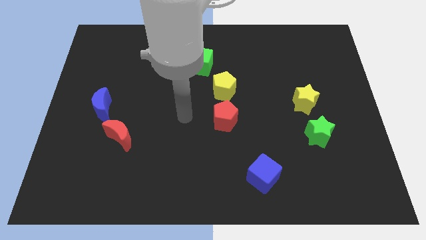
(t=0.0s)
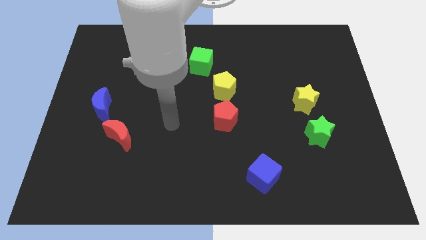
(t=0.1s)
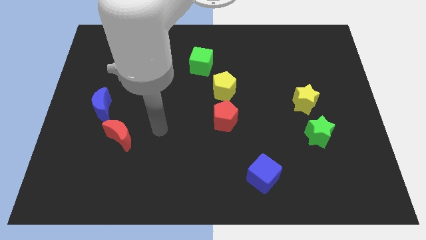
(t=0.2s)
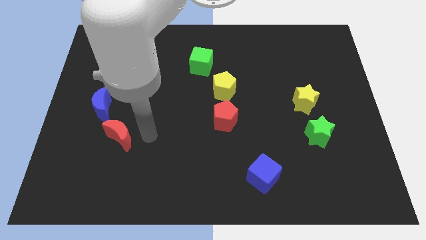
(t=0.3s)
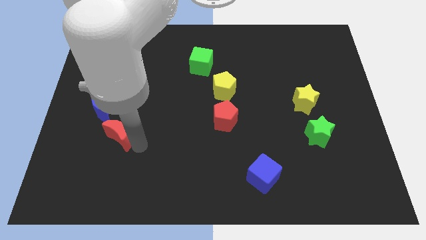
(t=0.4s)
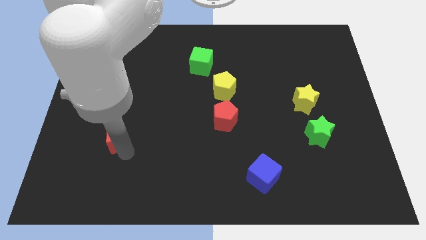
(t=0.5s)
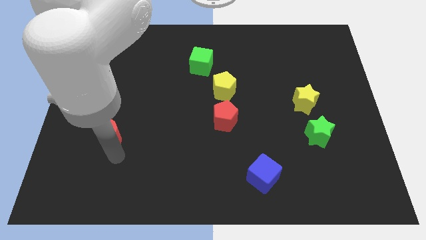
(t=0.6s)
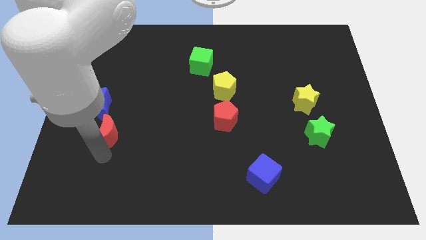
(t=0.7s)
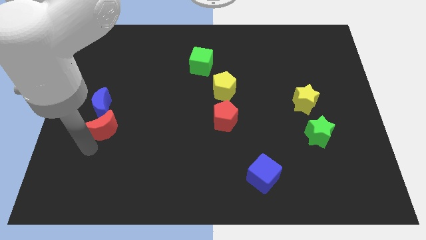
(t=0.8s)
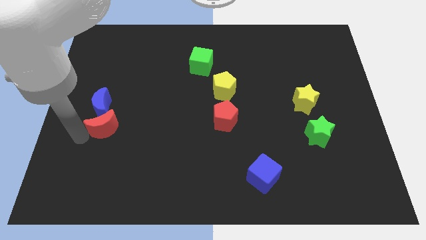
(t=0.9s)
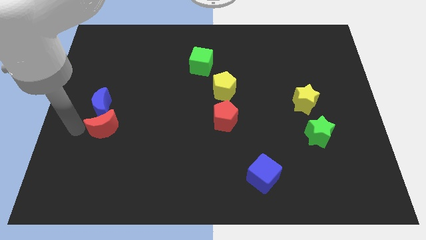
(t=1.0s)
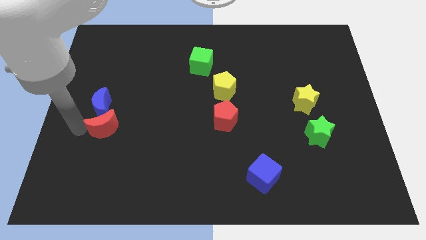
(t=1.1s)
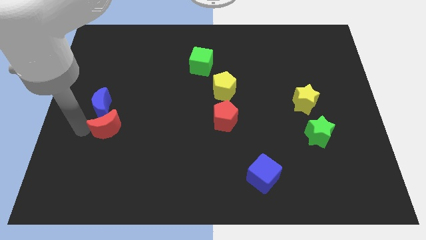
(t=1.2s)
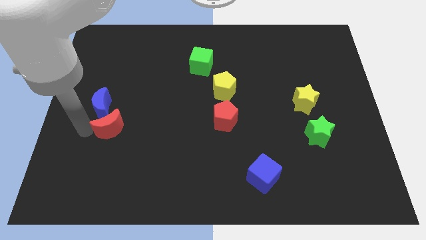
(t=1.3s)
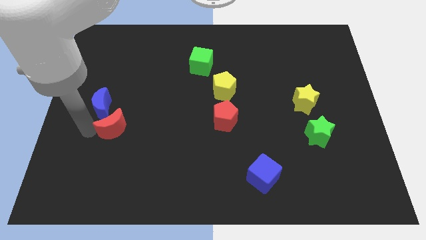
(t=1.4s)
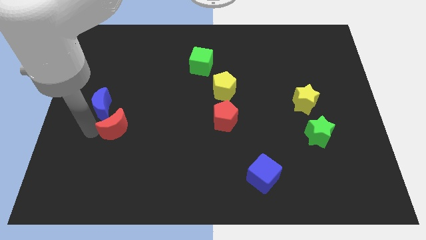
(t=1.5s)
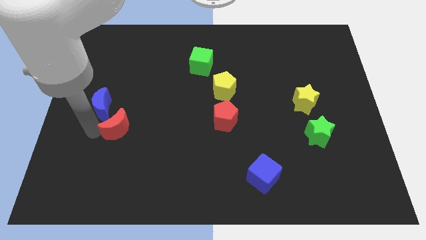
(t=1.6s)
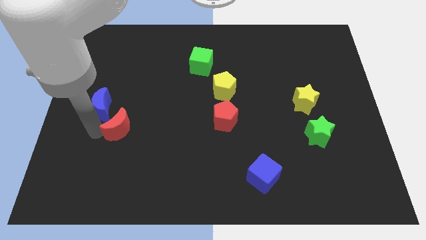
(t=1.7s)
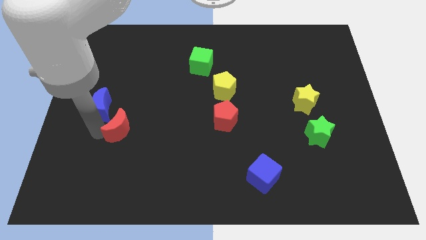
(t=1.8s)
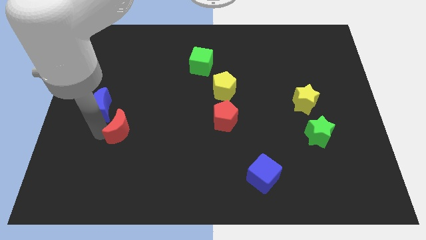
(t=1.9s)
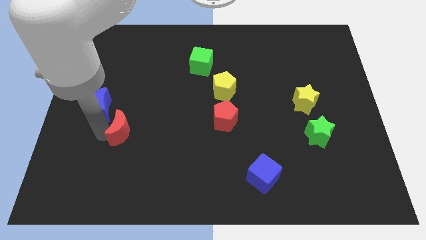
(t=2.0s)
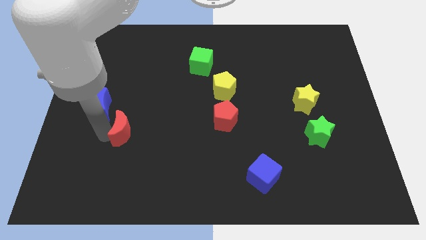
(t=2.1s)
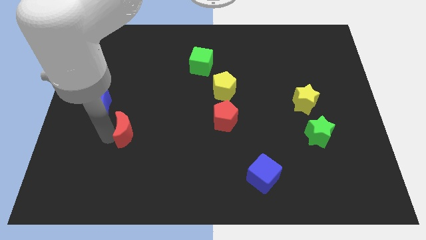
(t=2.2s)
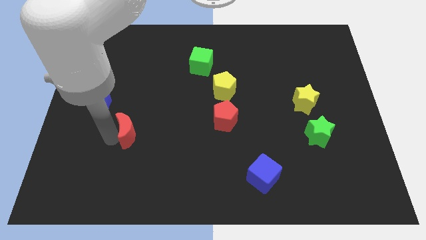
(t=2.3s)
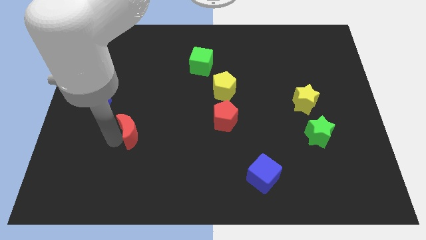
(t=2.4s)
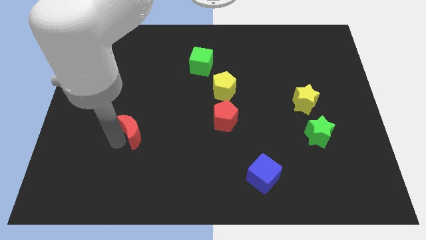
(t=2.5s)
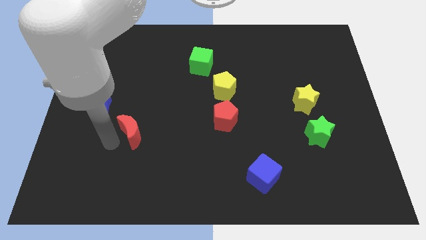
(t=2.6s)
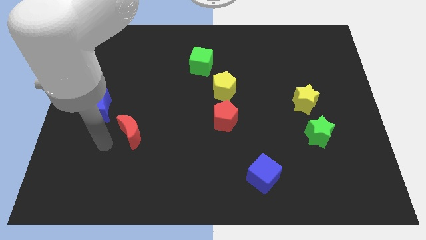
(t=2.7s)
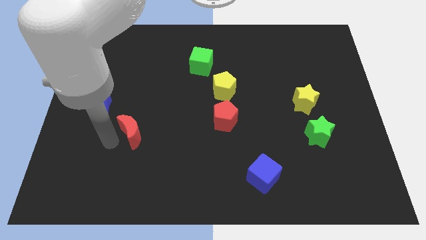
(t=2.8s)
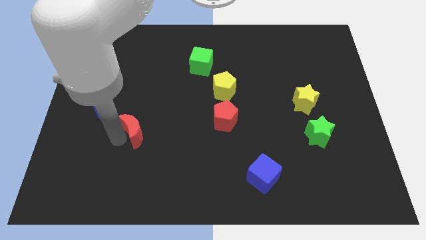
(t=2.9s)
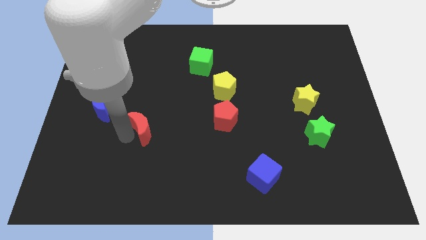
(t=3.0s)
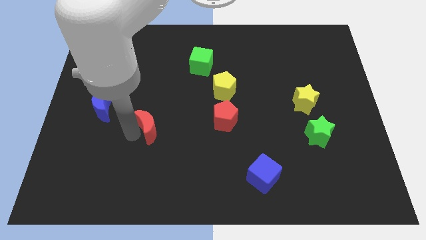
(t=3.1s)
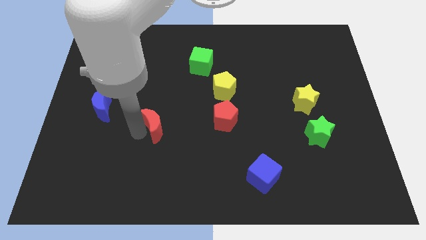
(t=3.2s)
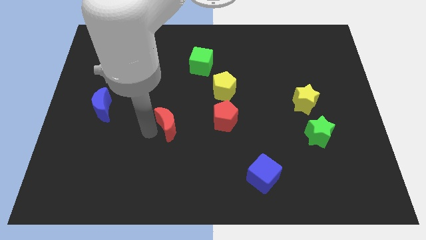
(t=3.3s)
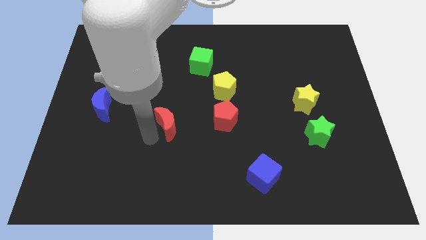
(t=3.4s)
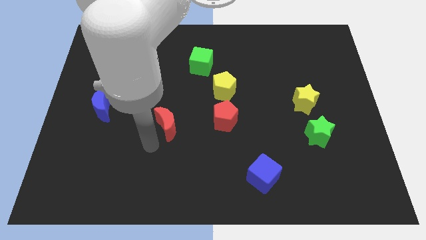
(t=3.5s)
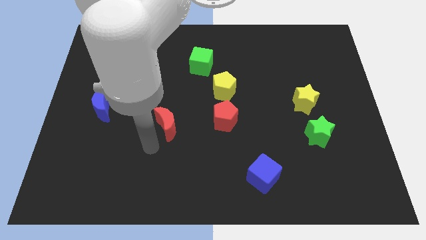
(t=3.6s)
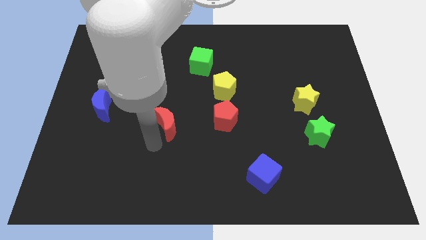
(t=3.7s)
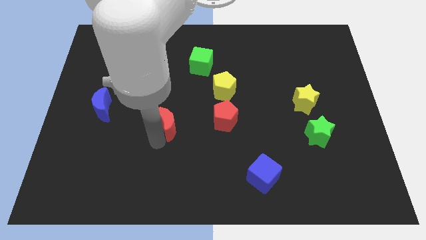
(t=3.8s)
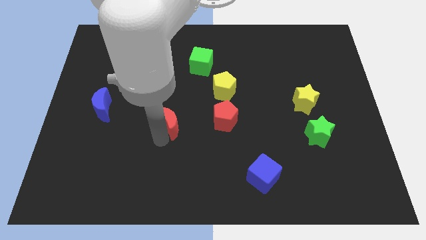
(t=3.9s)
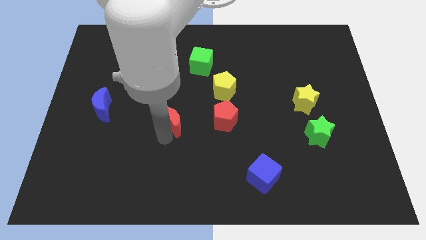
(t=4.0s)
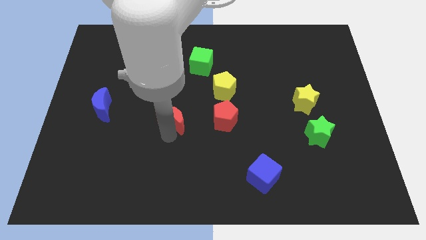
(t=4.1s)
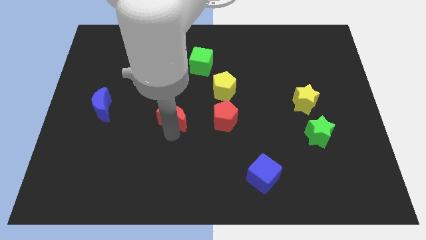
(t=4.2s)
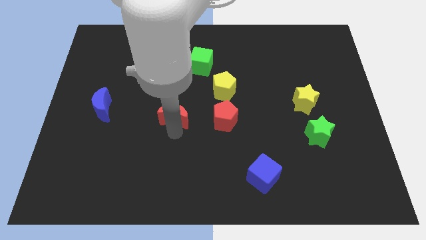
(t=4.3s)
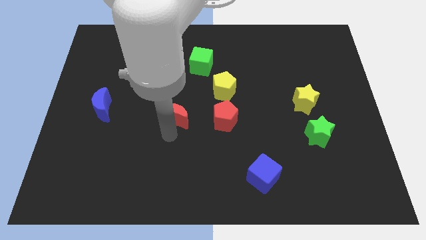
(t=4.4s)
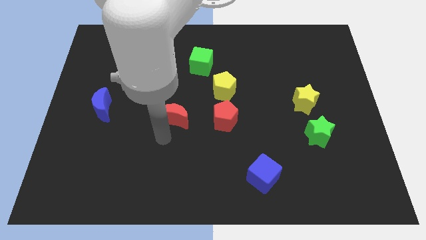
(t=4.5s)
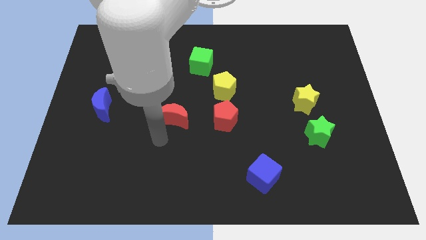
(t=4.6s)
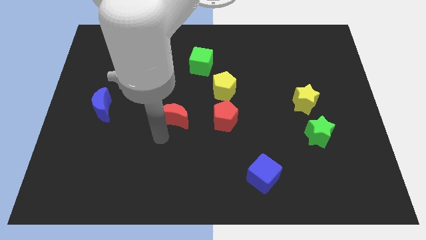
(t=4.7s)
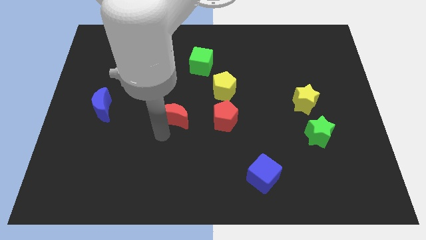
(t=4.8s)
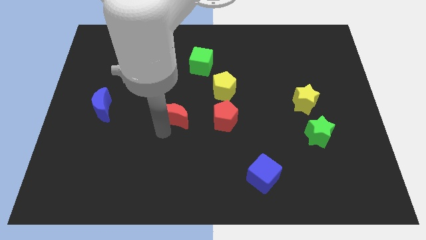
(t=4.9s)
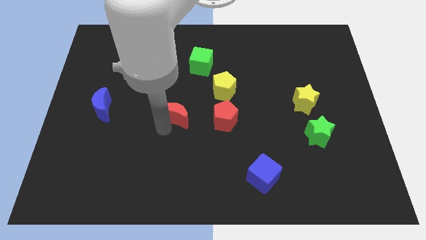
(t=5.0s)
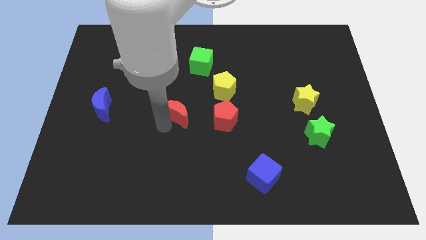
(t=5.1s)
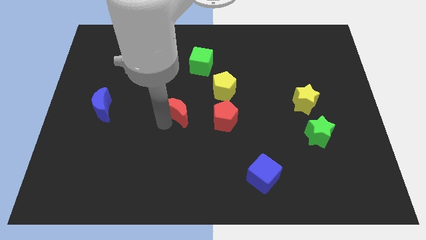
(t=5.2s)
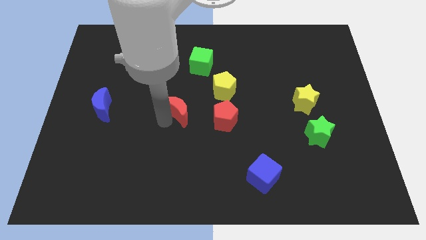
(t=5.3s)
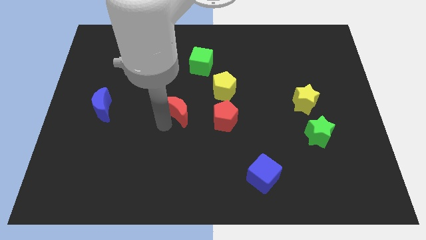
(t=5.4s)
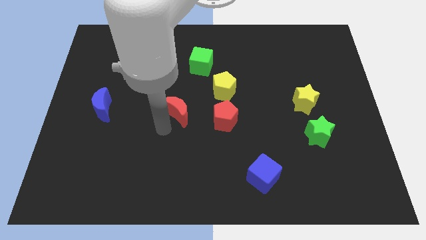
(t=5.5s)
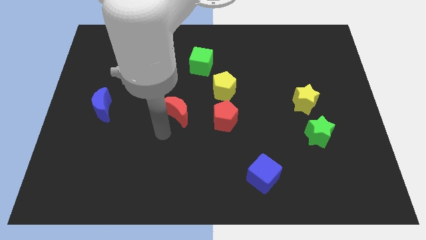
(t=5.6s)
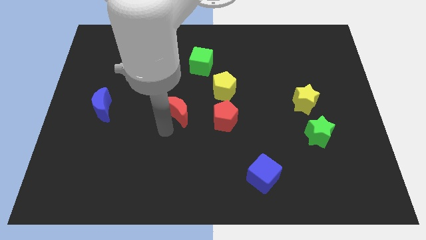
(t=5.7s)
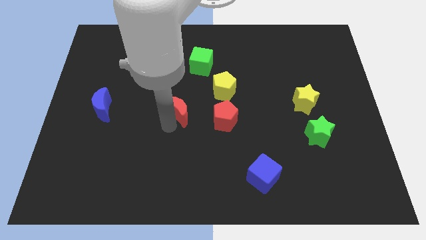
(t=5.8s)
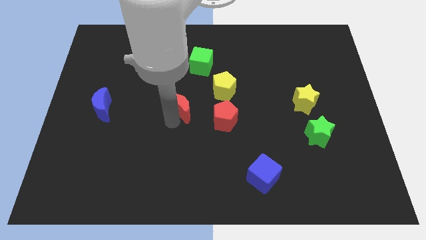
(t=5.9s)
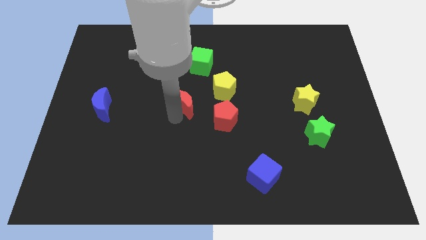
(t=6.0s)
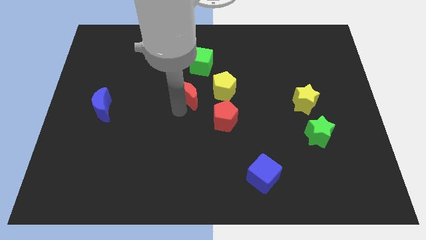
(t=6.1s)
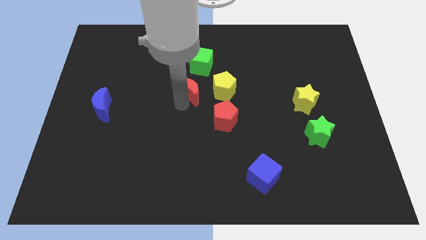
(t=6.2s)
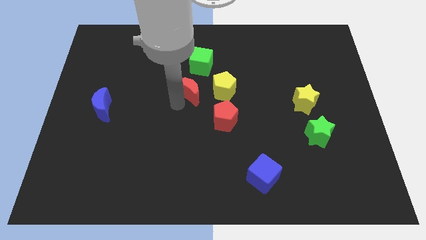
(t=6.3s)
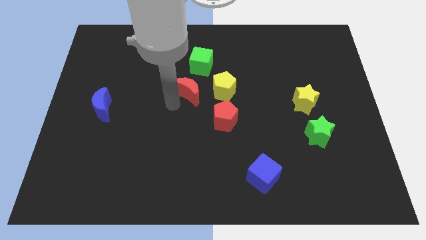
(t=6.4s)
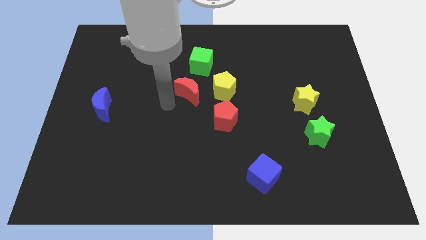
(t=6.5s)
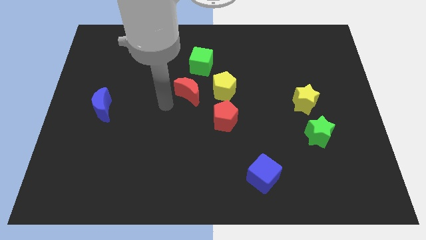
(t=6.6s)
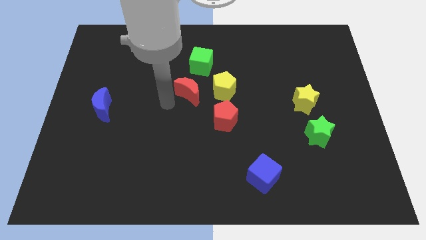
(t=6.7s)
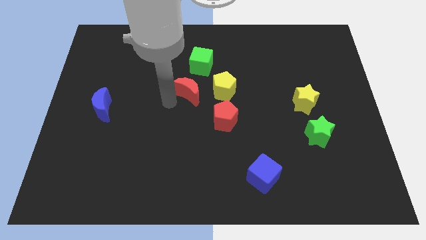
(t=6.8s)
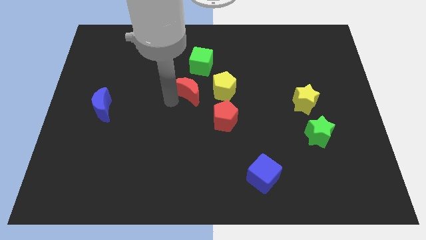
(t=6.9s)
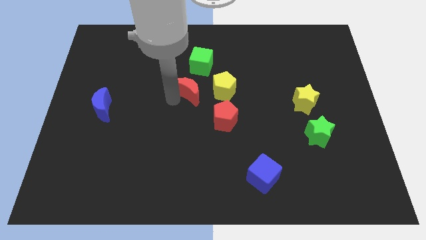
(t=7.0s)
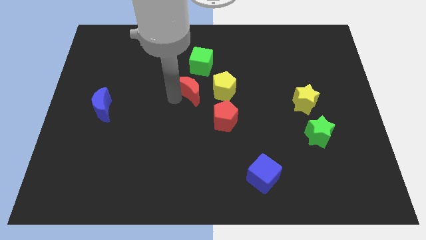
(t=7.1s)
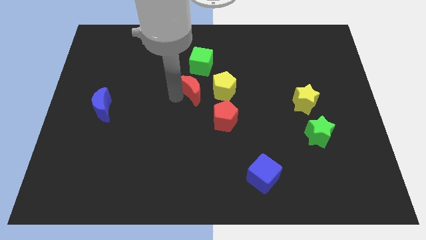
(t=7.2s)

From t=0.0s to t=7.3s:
push the red moon diagonally upwards and right

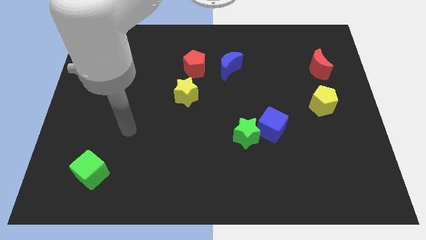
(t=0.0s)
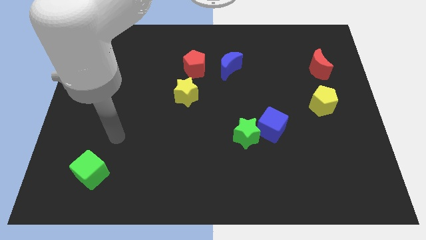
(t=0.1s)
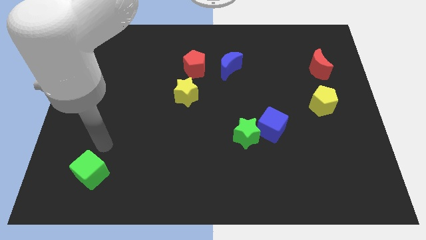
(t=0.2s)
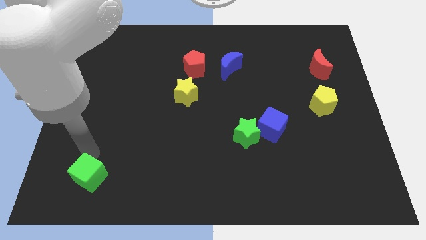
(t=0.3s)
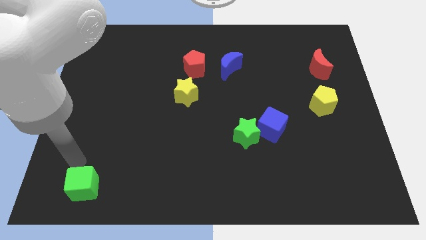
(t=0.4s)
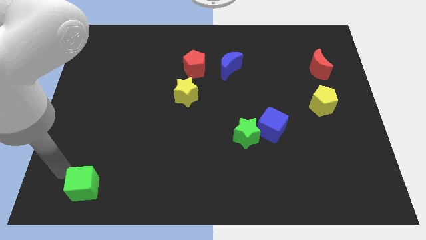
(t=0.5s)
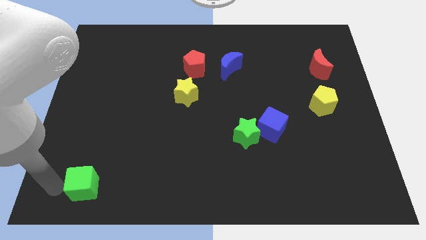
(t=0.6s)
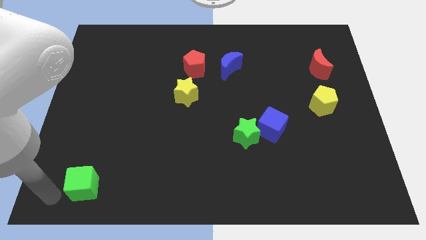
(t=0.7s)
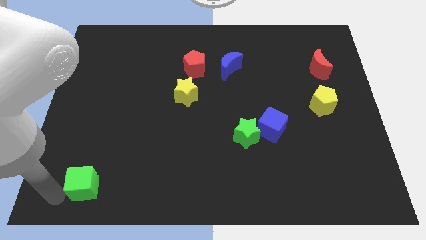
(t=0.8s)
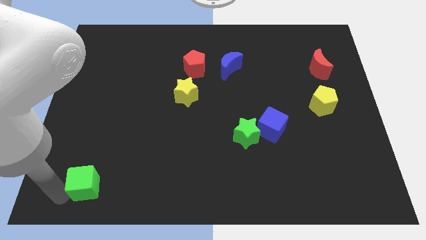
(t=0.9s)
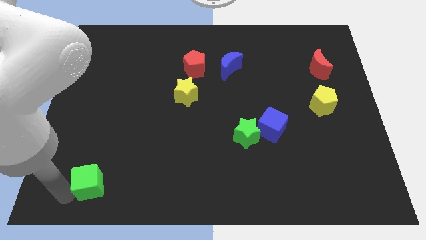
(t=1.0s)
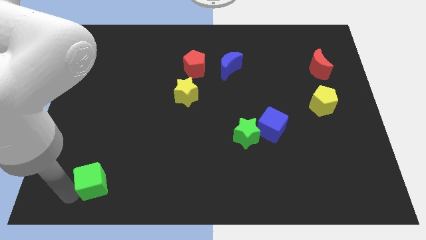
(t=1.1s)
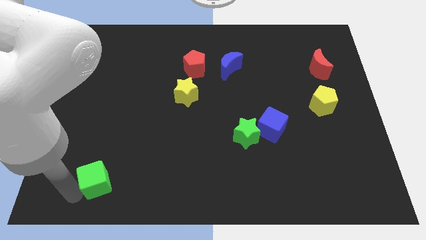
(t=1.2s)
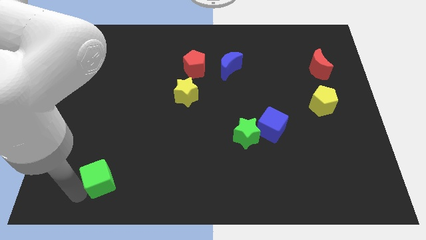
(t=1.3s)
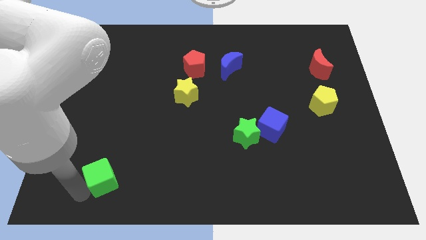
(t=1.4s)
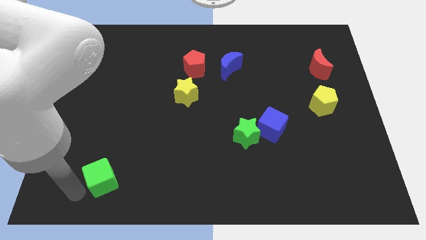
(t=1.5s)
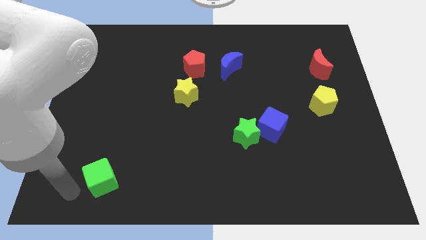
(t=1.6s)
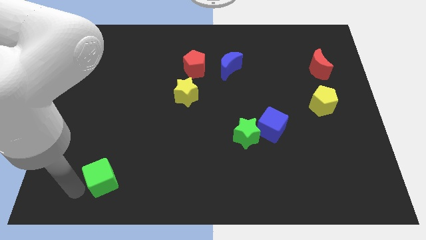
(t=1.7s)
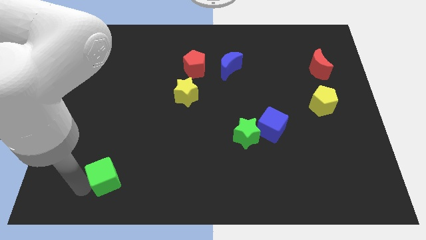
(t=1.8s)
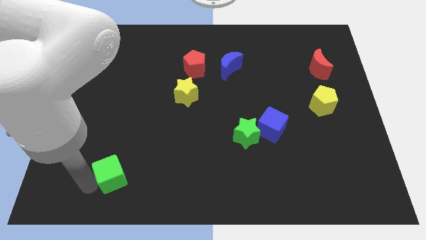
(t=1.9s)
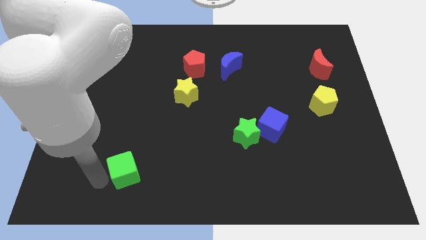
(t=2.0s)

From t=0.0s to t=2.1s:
slide the green cube slightly right
